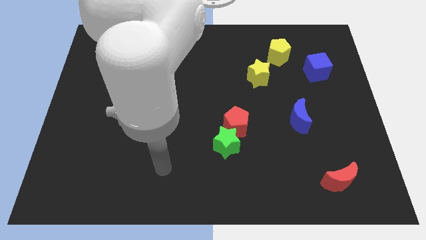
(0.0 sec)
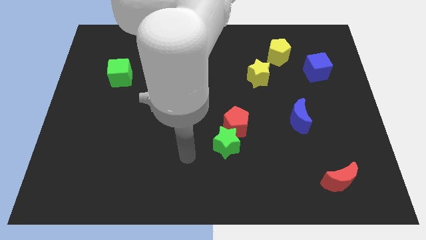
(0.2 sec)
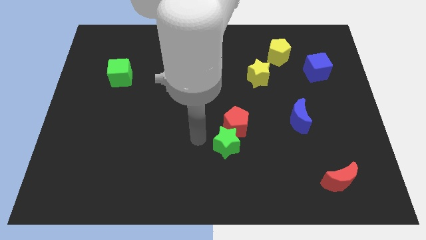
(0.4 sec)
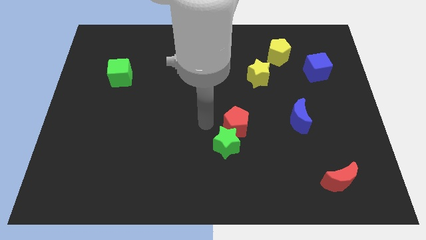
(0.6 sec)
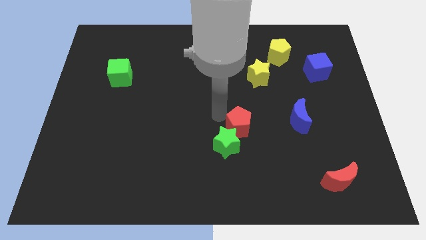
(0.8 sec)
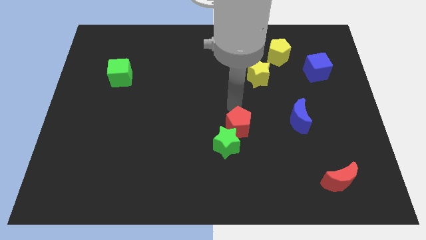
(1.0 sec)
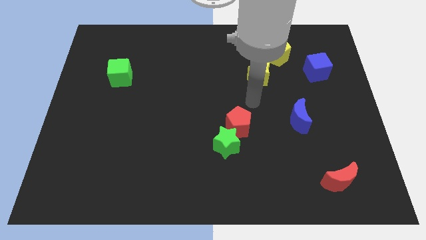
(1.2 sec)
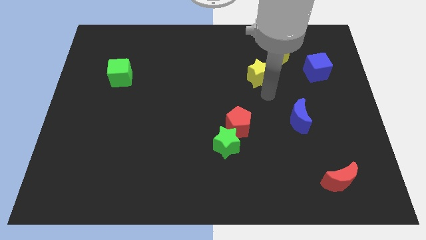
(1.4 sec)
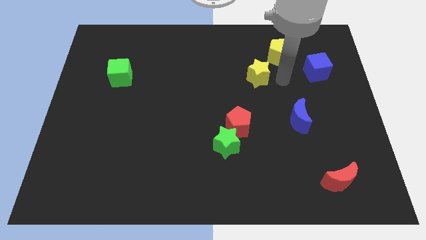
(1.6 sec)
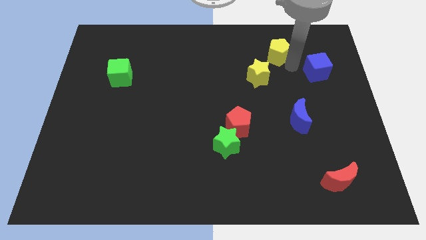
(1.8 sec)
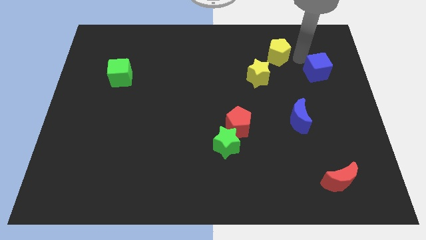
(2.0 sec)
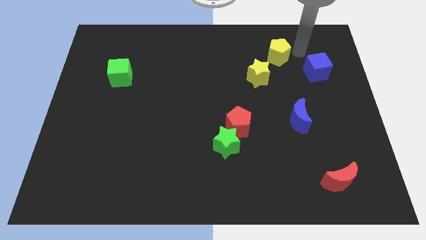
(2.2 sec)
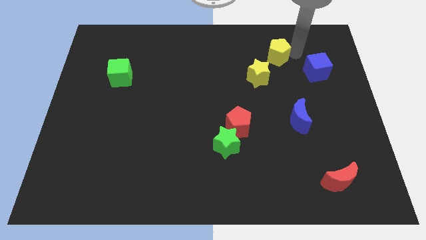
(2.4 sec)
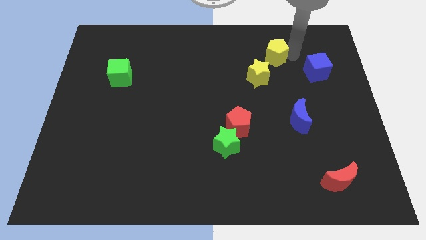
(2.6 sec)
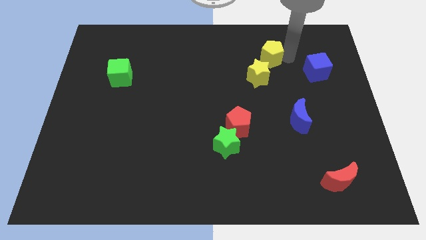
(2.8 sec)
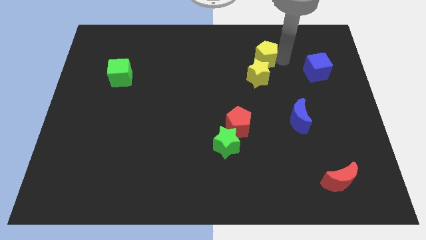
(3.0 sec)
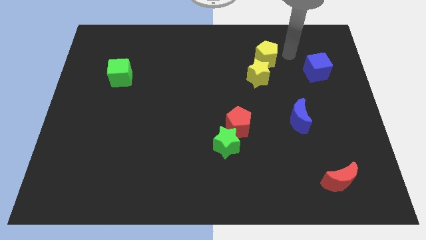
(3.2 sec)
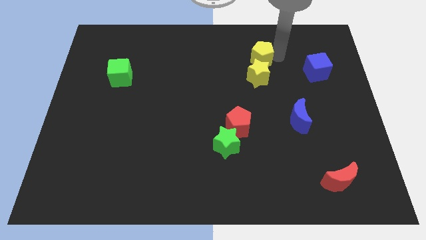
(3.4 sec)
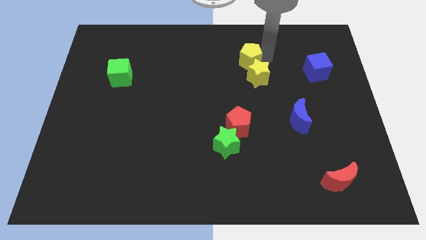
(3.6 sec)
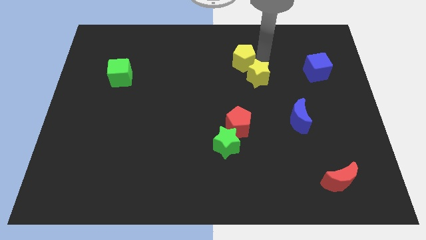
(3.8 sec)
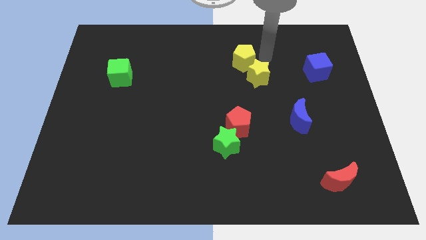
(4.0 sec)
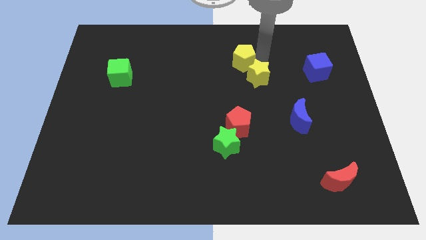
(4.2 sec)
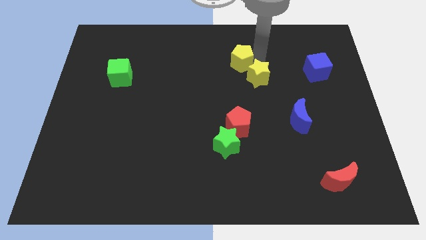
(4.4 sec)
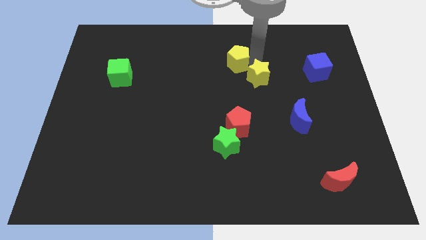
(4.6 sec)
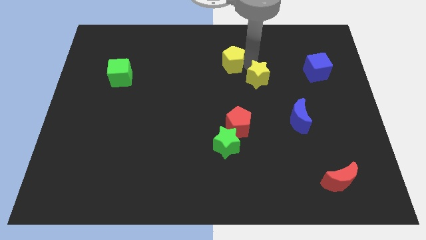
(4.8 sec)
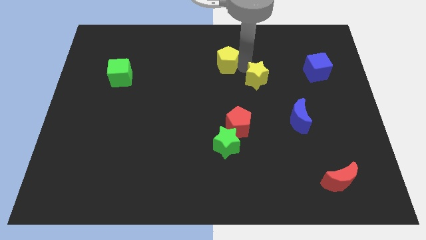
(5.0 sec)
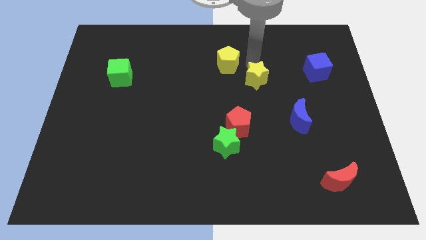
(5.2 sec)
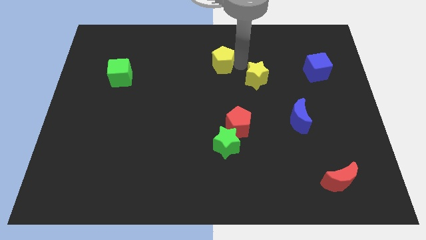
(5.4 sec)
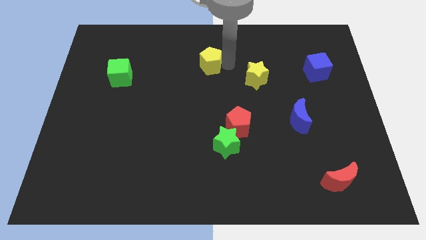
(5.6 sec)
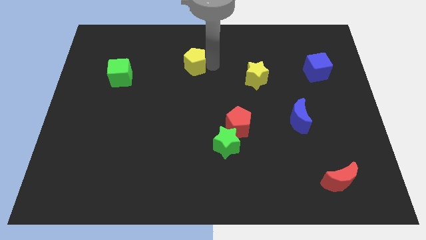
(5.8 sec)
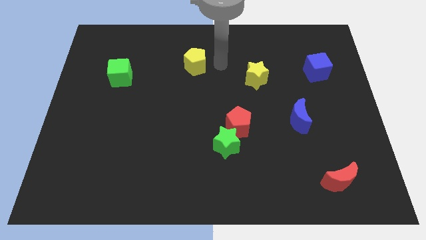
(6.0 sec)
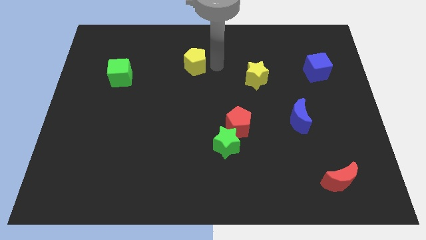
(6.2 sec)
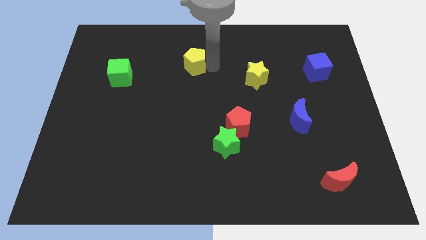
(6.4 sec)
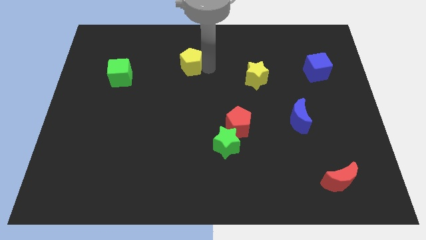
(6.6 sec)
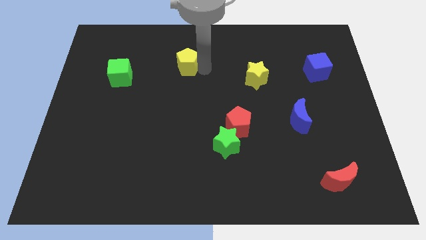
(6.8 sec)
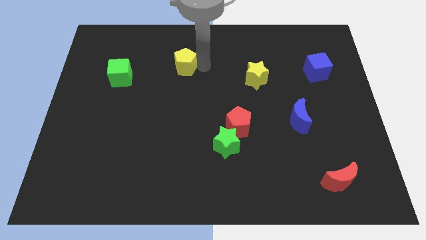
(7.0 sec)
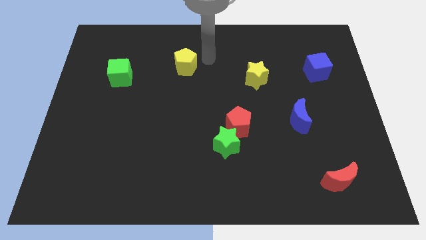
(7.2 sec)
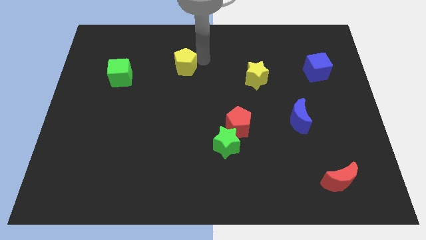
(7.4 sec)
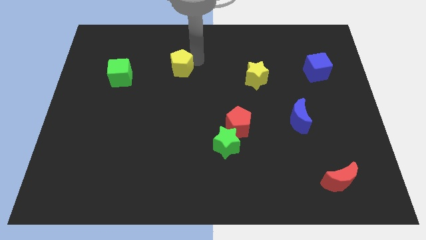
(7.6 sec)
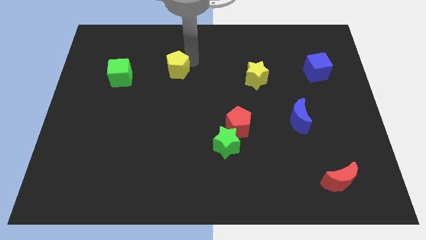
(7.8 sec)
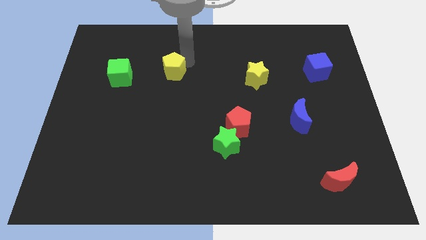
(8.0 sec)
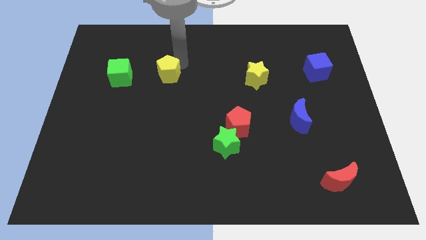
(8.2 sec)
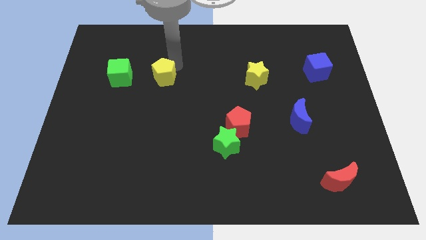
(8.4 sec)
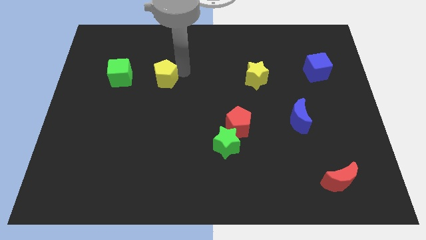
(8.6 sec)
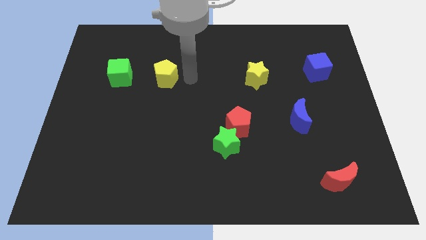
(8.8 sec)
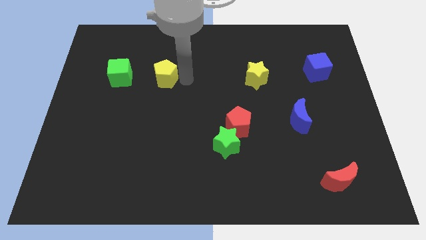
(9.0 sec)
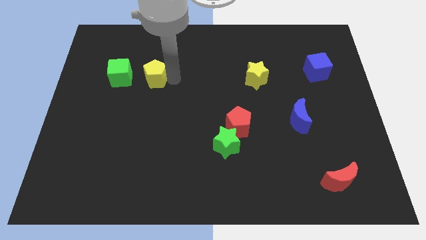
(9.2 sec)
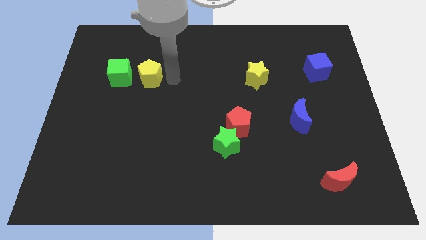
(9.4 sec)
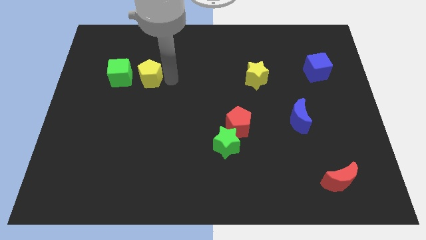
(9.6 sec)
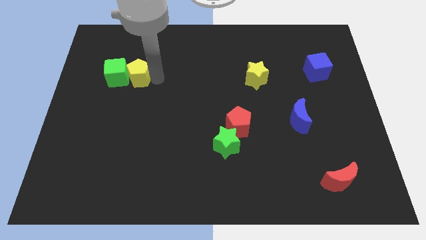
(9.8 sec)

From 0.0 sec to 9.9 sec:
move the yellow pentagon towards the green cube

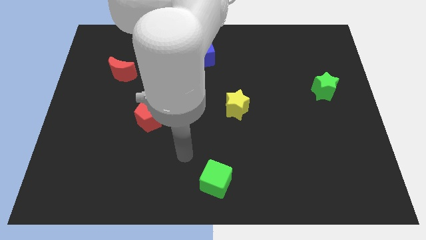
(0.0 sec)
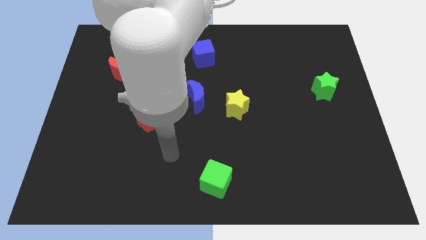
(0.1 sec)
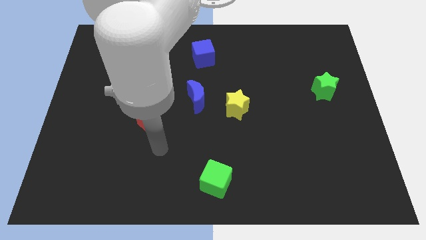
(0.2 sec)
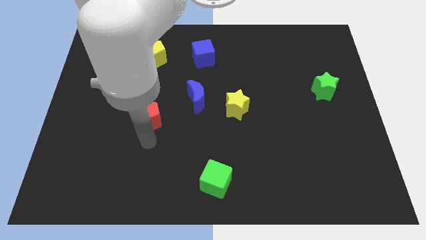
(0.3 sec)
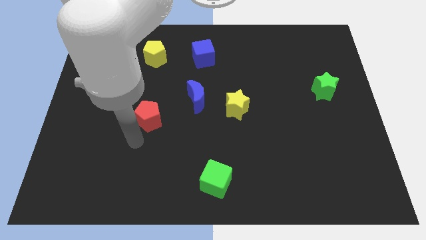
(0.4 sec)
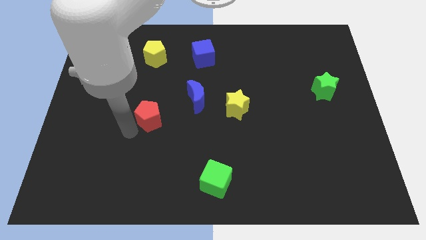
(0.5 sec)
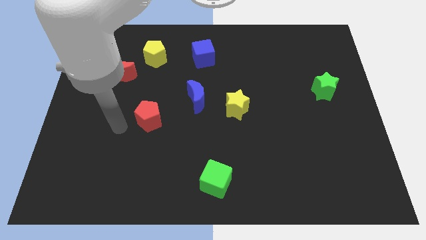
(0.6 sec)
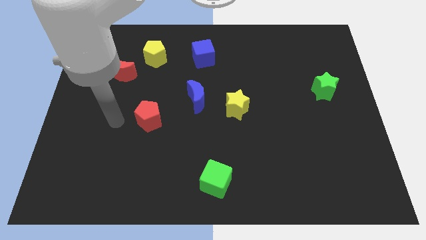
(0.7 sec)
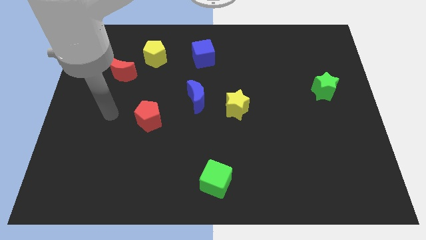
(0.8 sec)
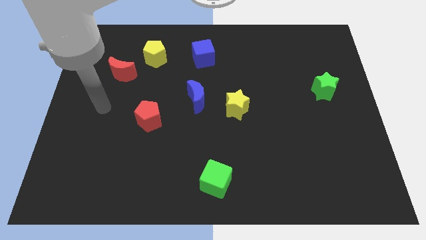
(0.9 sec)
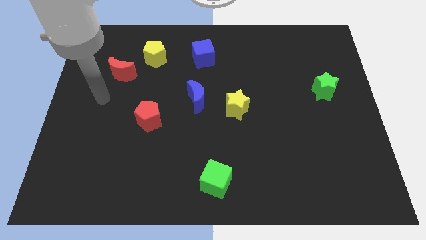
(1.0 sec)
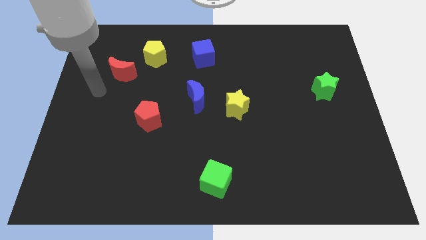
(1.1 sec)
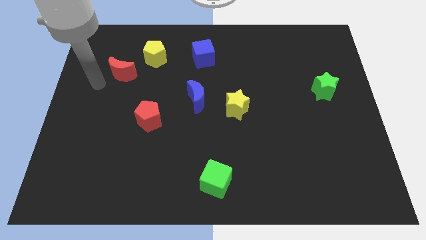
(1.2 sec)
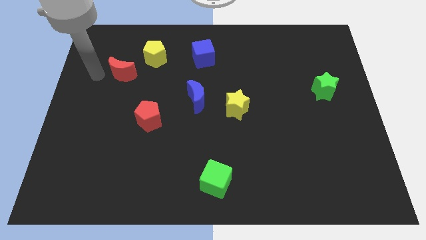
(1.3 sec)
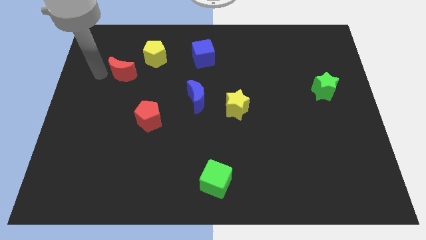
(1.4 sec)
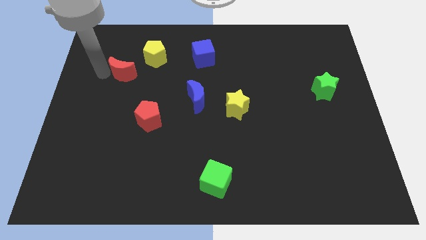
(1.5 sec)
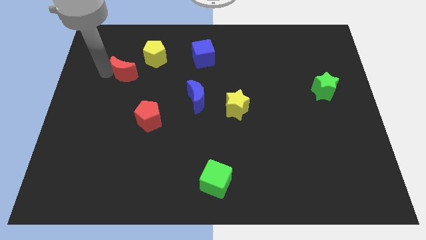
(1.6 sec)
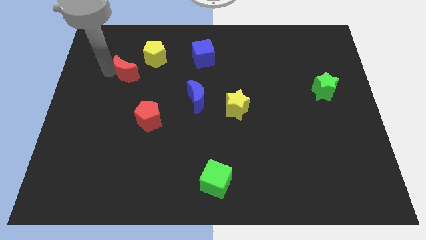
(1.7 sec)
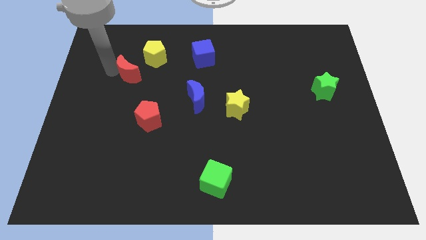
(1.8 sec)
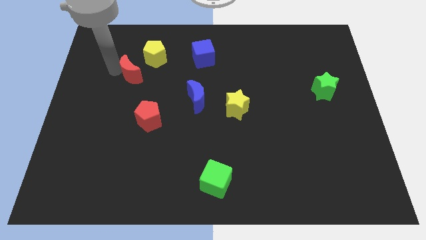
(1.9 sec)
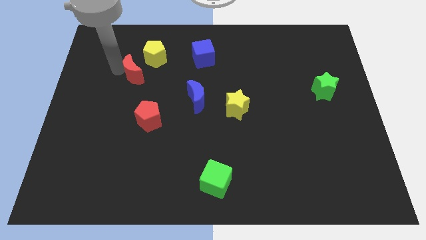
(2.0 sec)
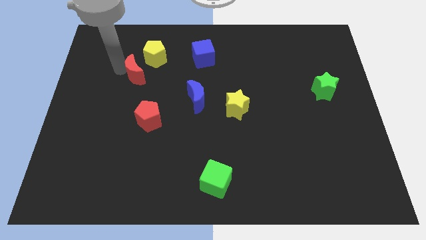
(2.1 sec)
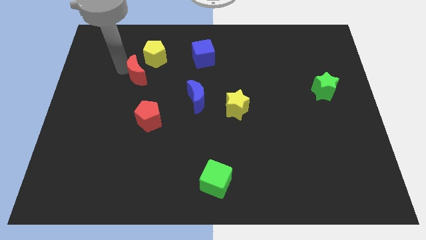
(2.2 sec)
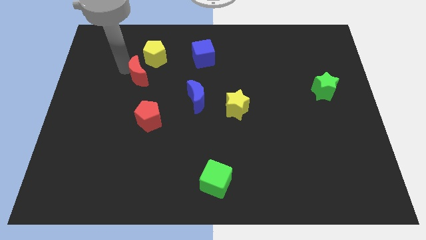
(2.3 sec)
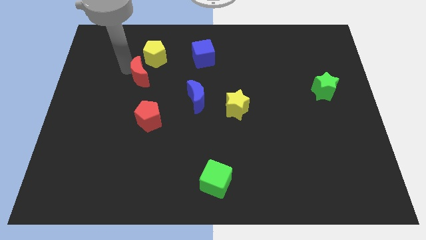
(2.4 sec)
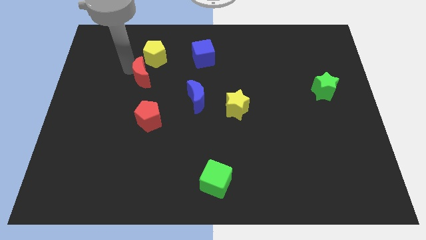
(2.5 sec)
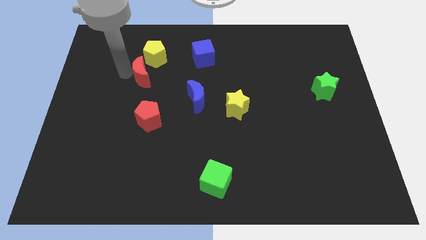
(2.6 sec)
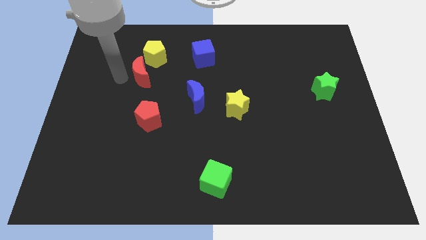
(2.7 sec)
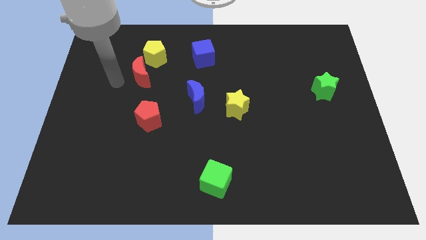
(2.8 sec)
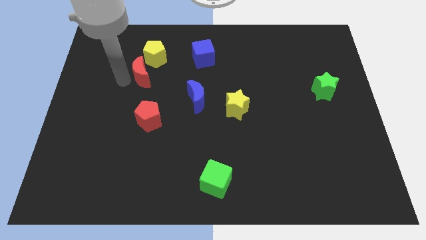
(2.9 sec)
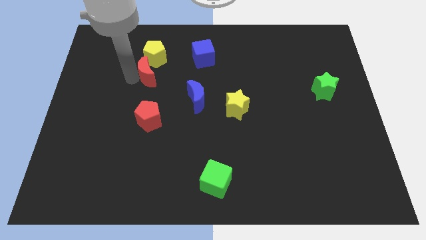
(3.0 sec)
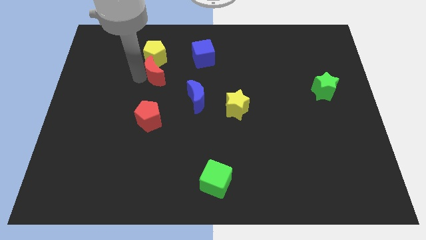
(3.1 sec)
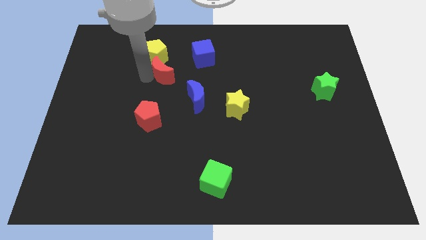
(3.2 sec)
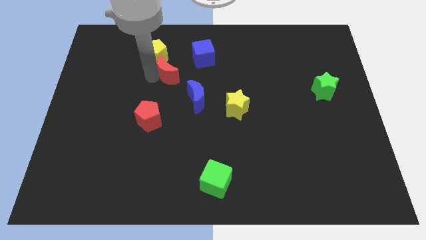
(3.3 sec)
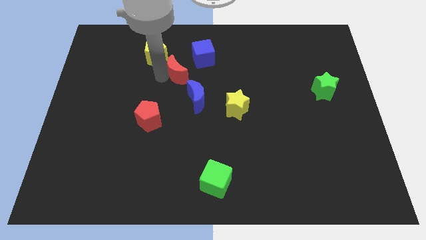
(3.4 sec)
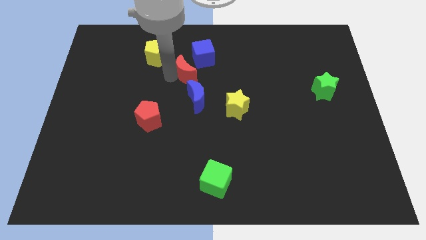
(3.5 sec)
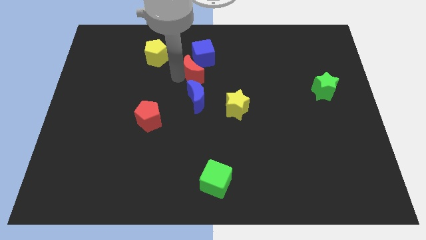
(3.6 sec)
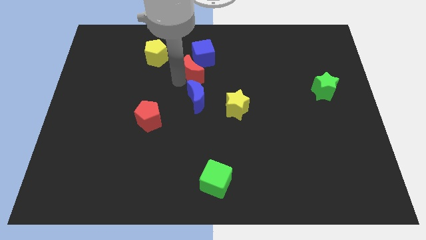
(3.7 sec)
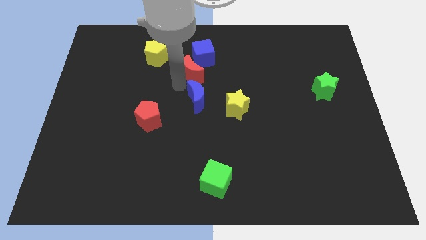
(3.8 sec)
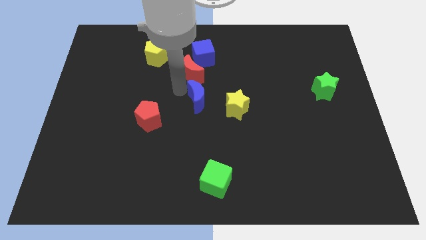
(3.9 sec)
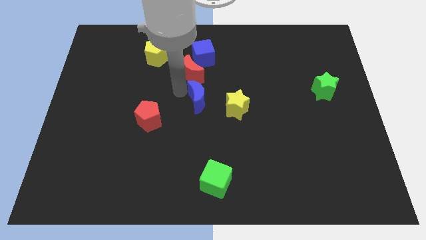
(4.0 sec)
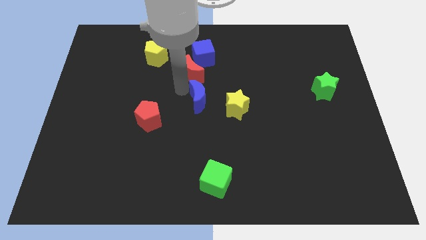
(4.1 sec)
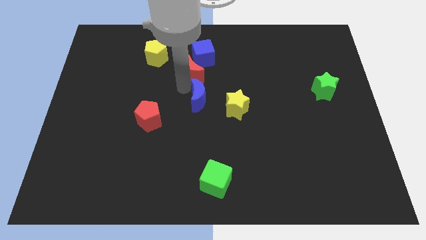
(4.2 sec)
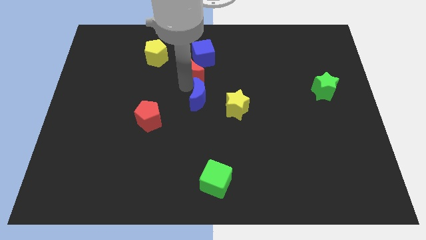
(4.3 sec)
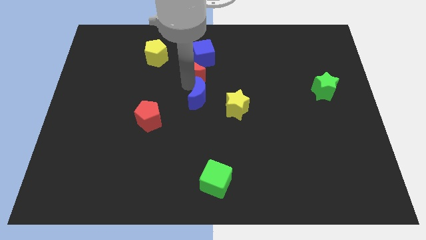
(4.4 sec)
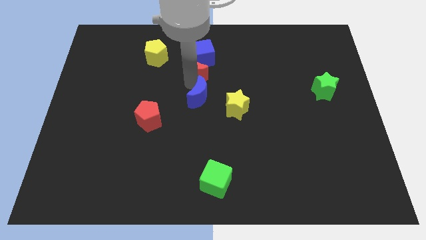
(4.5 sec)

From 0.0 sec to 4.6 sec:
slide the red moon to the blue cube
